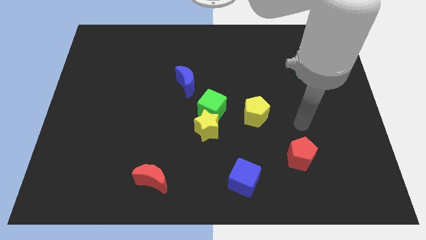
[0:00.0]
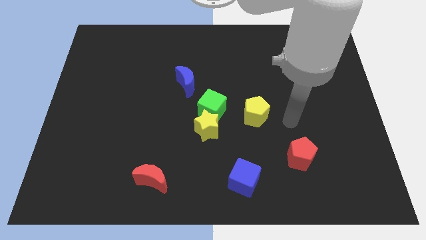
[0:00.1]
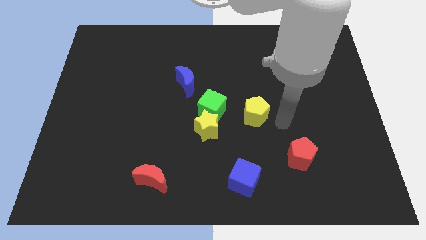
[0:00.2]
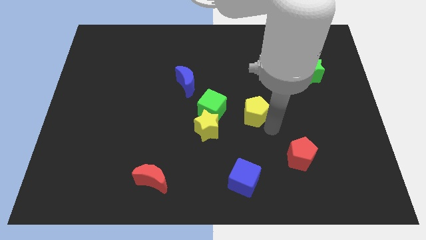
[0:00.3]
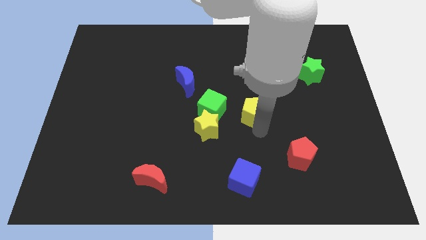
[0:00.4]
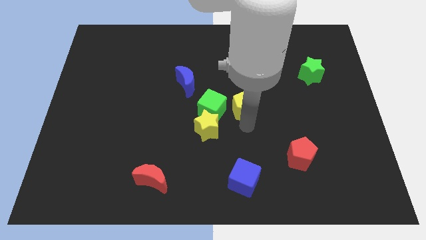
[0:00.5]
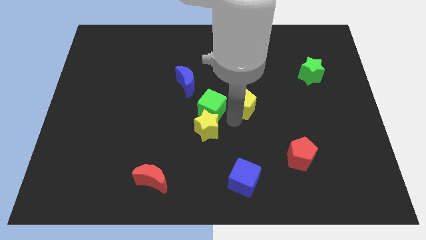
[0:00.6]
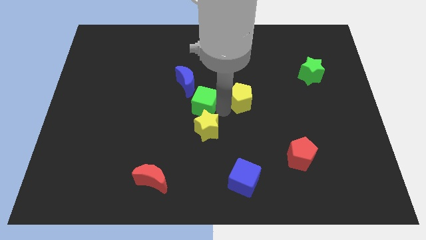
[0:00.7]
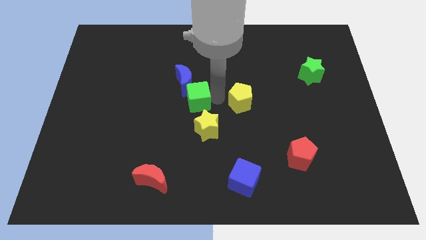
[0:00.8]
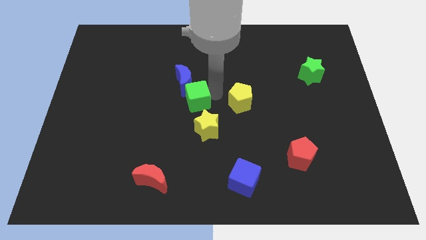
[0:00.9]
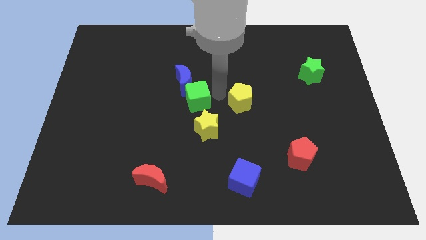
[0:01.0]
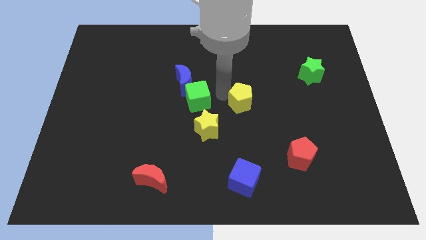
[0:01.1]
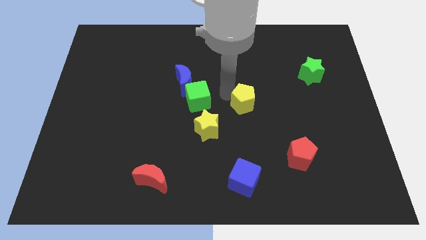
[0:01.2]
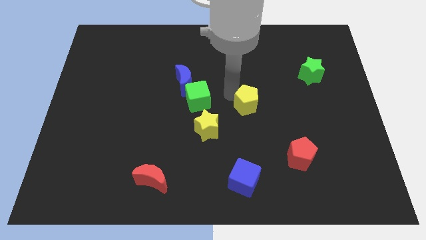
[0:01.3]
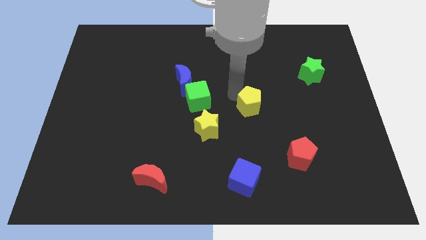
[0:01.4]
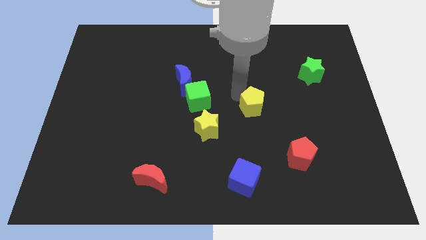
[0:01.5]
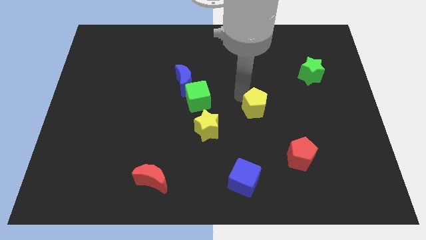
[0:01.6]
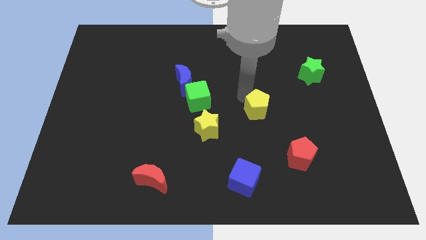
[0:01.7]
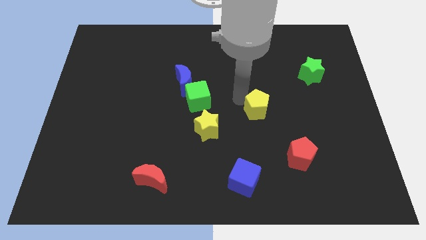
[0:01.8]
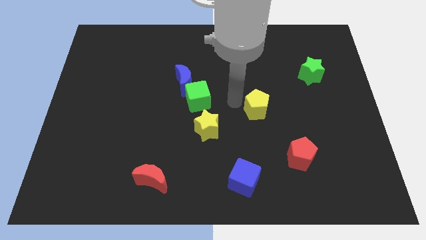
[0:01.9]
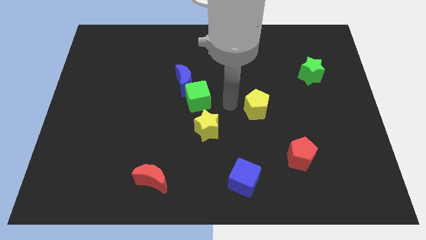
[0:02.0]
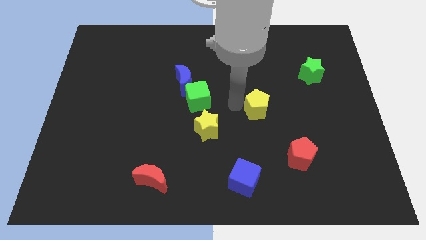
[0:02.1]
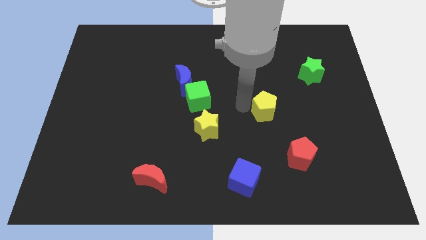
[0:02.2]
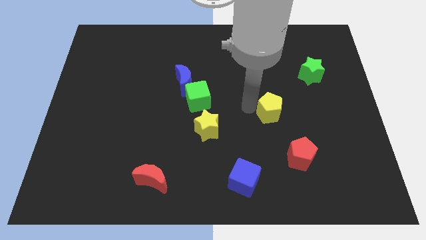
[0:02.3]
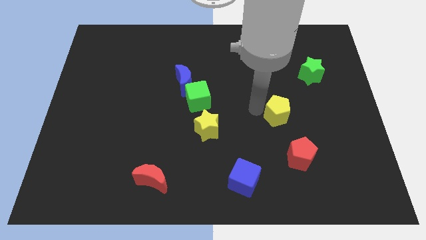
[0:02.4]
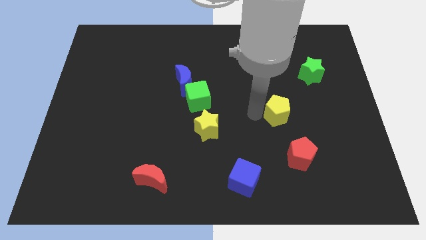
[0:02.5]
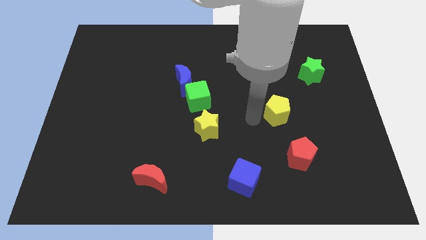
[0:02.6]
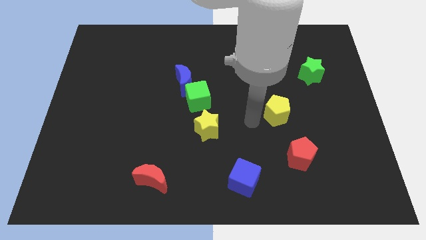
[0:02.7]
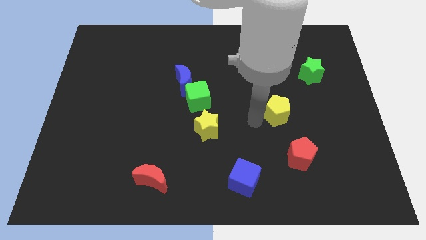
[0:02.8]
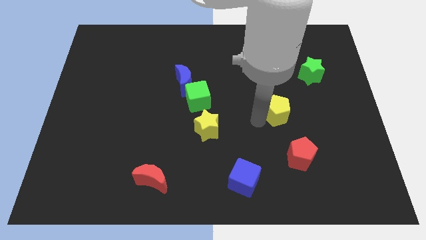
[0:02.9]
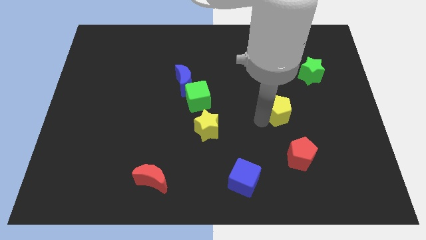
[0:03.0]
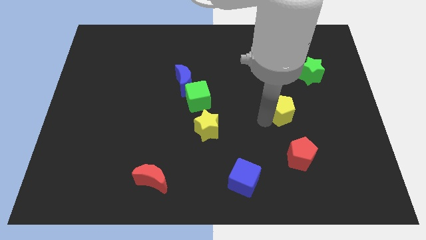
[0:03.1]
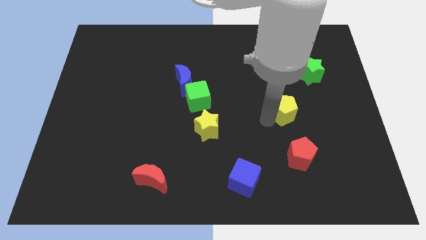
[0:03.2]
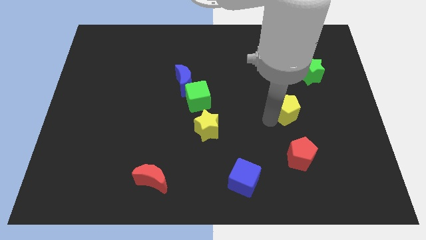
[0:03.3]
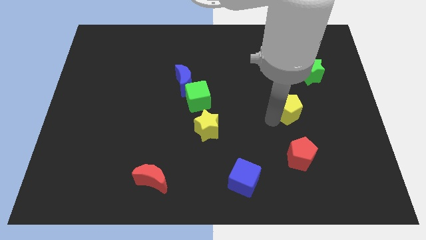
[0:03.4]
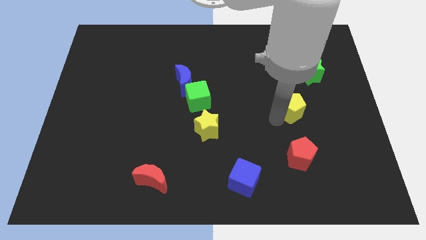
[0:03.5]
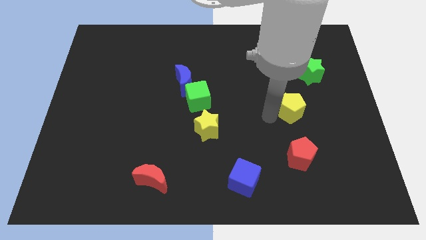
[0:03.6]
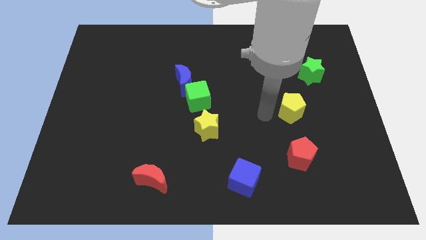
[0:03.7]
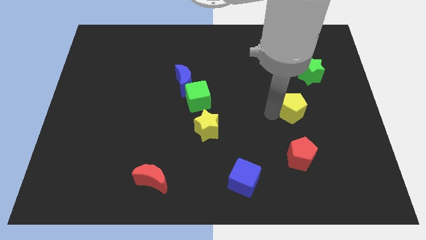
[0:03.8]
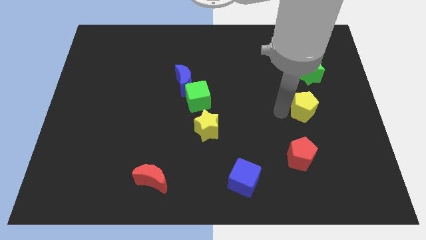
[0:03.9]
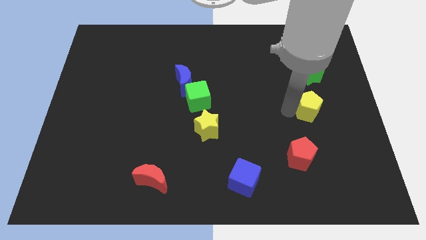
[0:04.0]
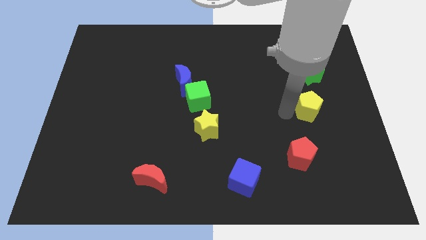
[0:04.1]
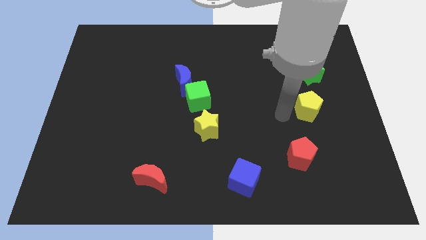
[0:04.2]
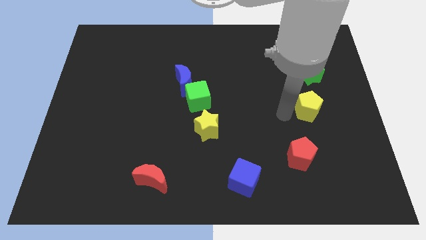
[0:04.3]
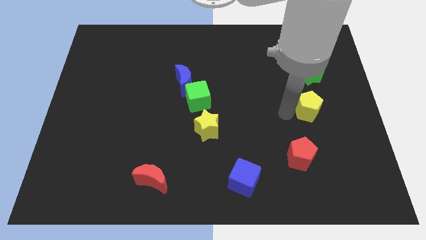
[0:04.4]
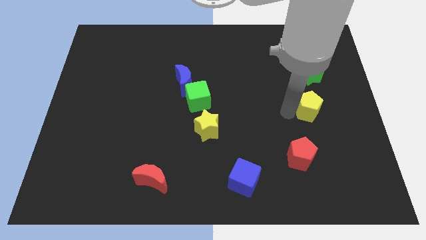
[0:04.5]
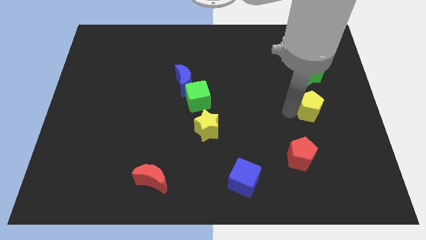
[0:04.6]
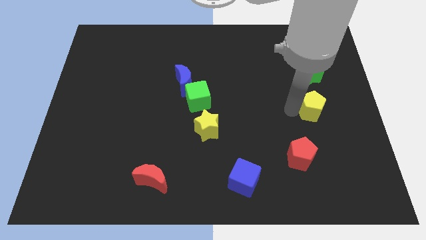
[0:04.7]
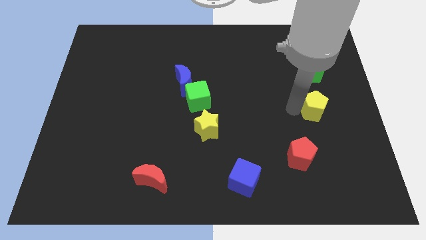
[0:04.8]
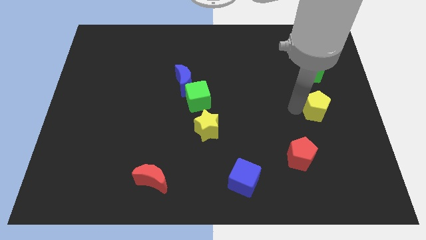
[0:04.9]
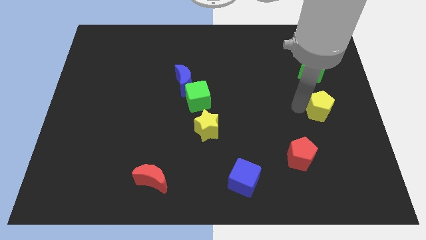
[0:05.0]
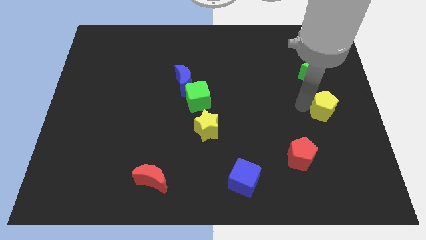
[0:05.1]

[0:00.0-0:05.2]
put the yellow pentagon to the right side

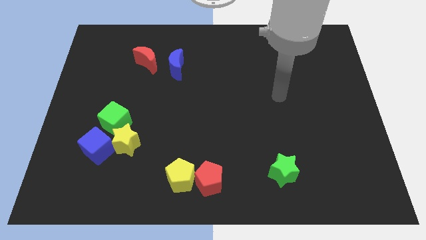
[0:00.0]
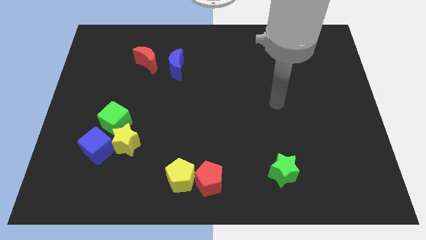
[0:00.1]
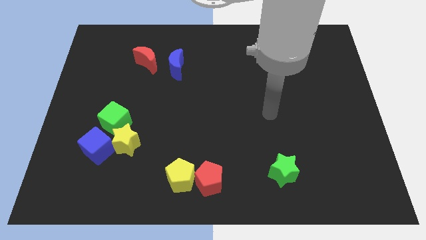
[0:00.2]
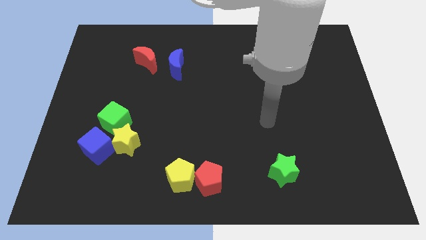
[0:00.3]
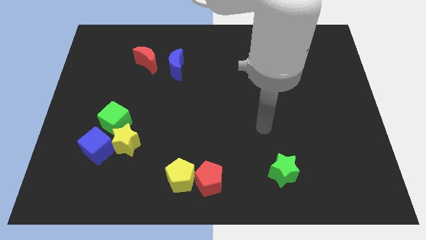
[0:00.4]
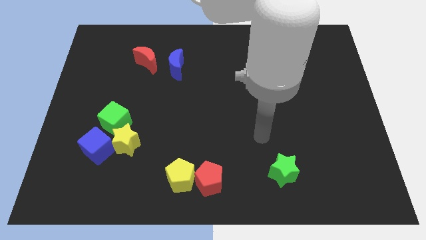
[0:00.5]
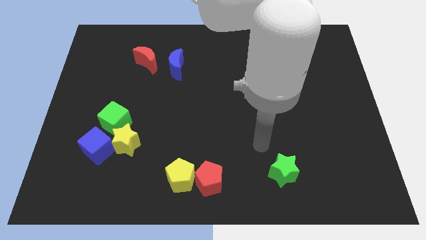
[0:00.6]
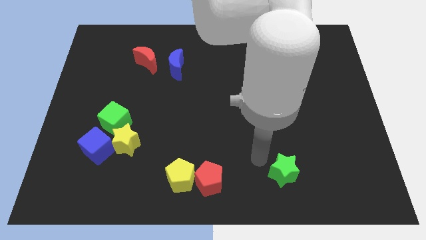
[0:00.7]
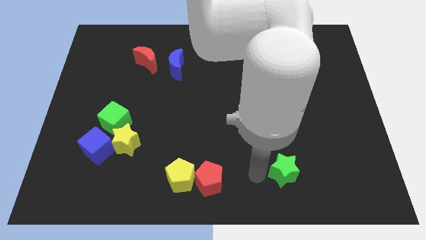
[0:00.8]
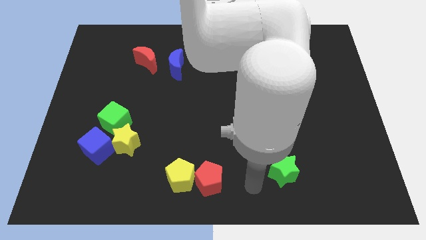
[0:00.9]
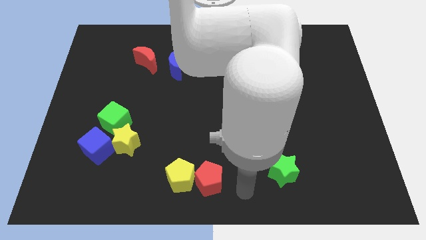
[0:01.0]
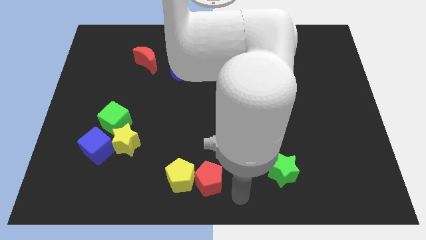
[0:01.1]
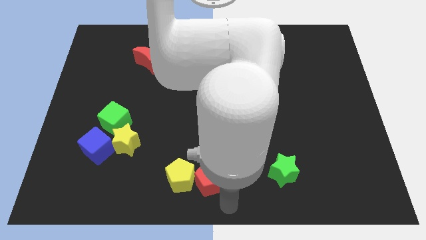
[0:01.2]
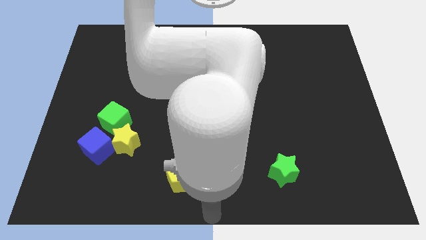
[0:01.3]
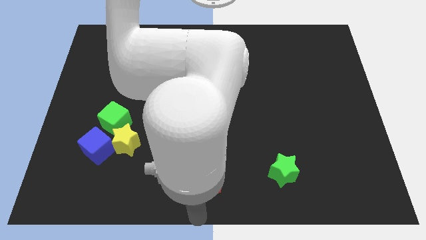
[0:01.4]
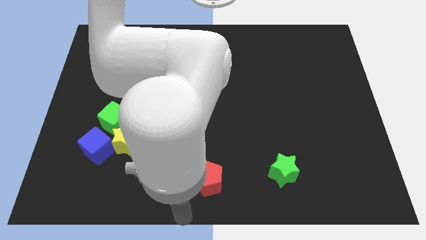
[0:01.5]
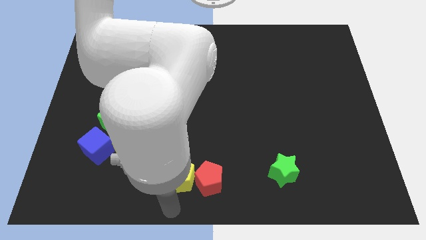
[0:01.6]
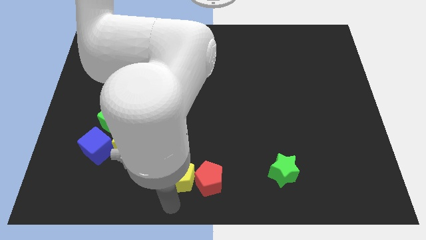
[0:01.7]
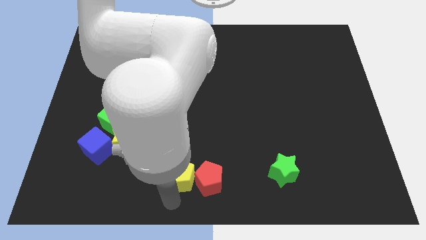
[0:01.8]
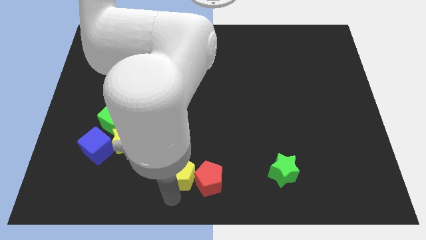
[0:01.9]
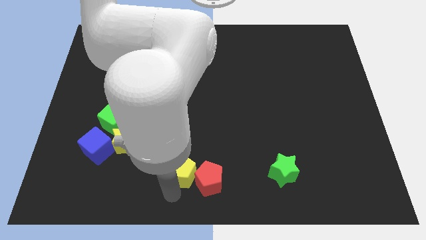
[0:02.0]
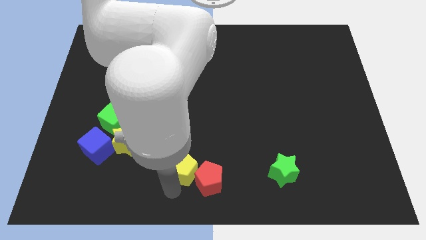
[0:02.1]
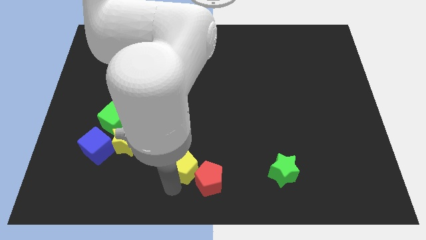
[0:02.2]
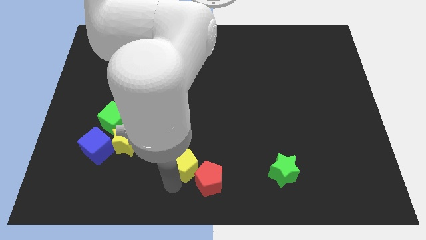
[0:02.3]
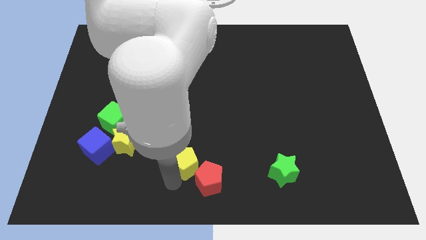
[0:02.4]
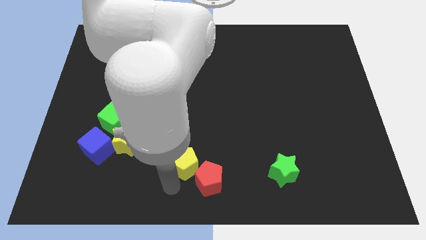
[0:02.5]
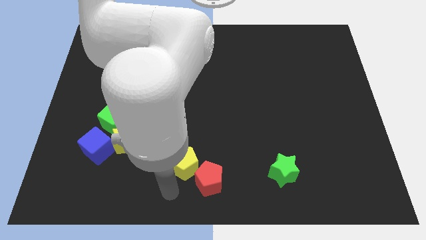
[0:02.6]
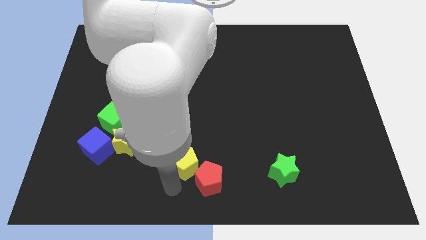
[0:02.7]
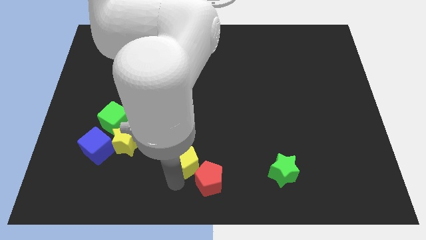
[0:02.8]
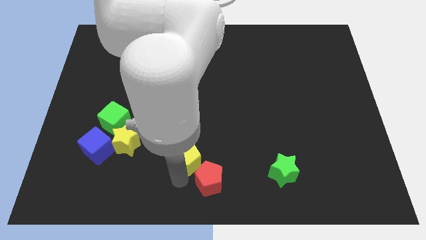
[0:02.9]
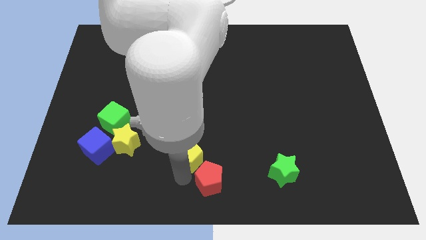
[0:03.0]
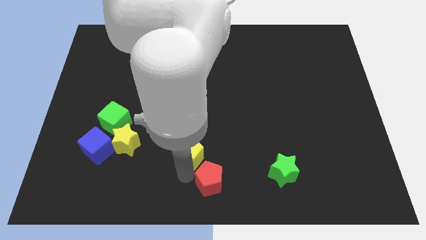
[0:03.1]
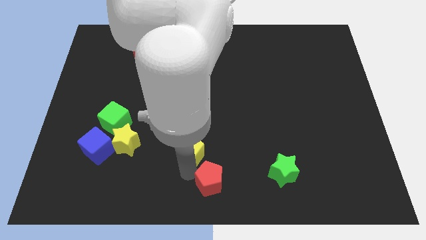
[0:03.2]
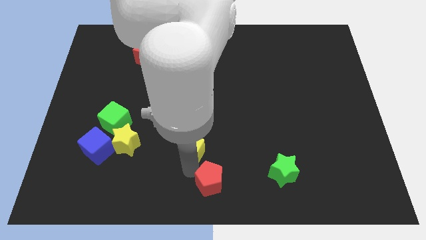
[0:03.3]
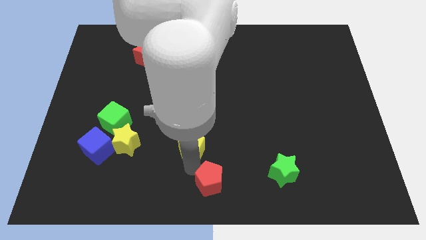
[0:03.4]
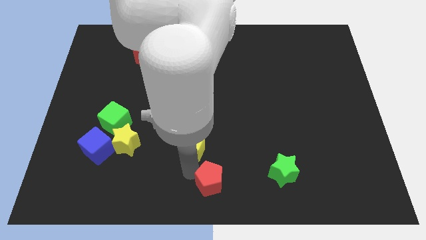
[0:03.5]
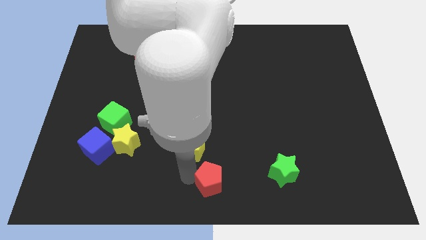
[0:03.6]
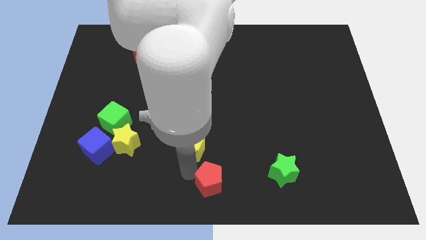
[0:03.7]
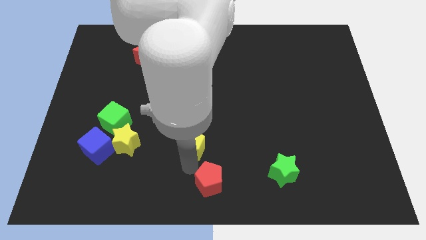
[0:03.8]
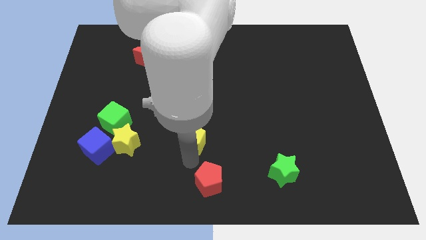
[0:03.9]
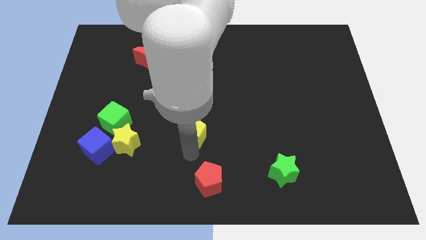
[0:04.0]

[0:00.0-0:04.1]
put the yellow pentagon to the middle
